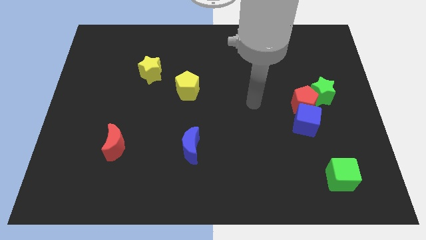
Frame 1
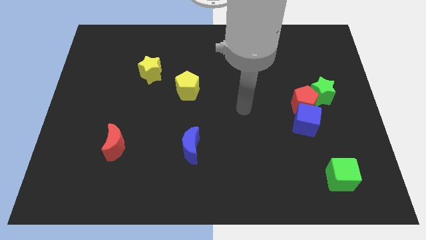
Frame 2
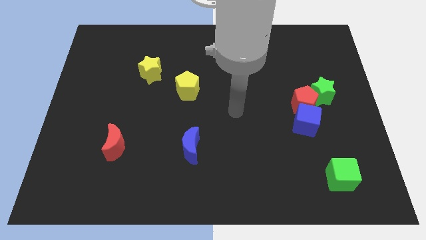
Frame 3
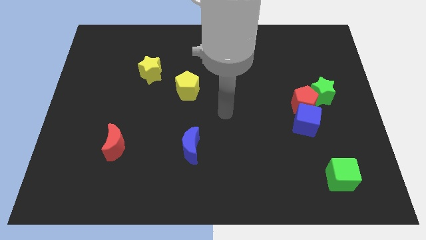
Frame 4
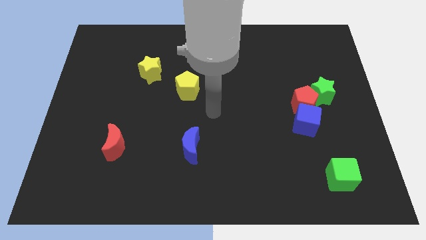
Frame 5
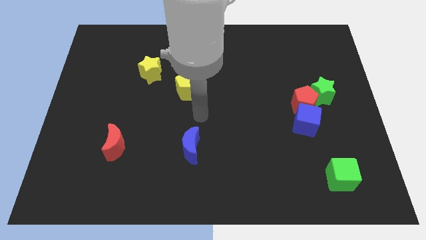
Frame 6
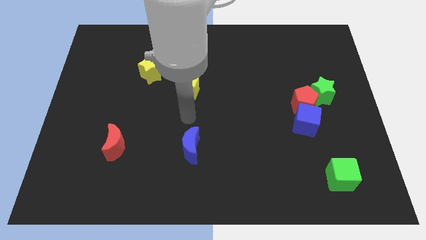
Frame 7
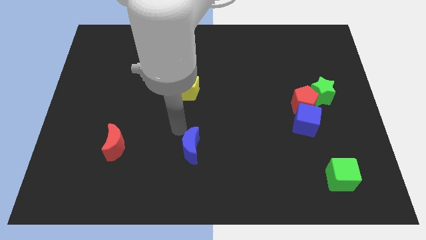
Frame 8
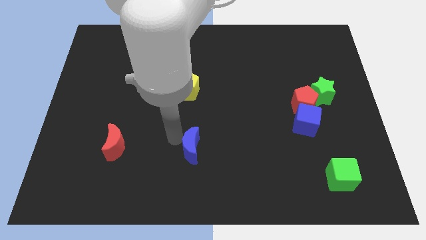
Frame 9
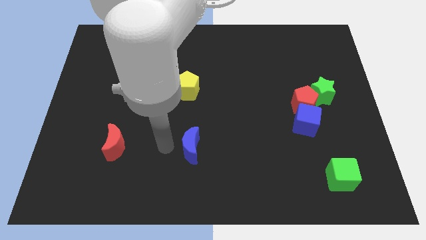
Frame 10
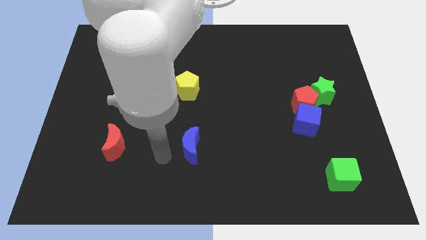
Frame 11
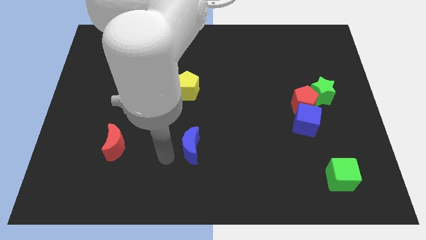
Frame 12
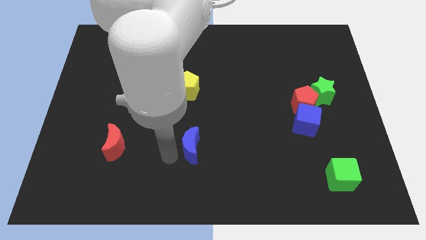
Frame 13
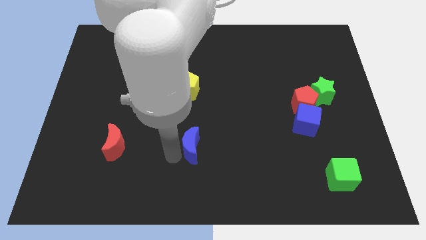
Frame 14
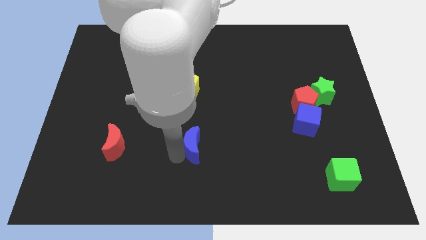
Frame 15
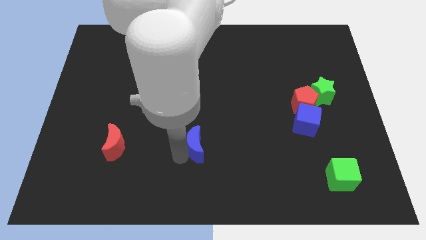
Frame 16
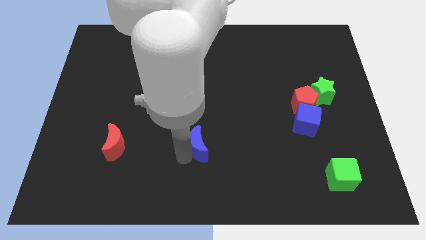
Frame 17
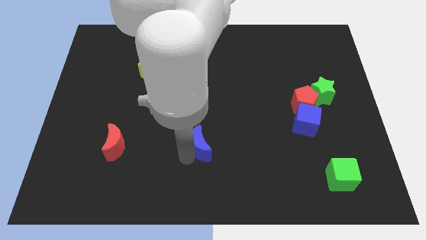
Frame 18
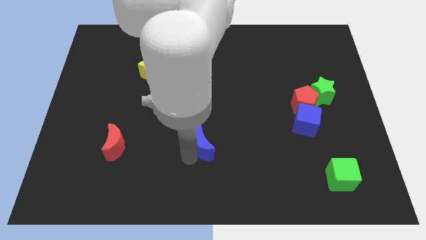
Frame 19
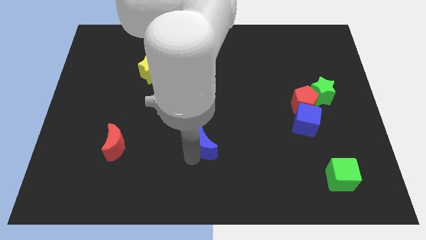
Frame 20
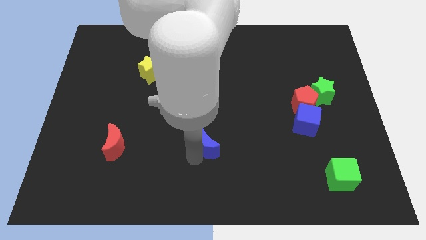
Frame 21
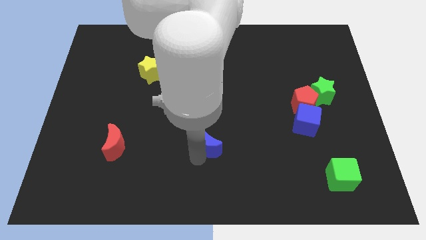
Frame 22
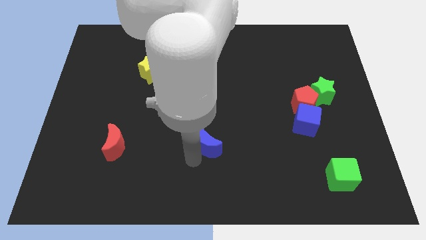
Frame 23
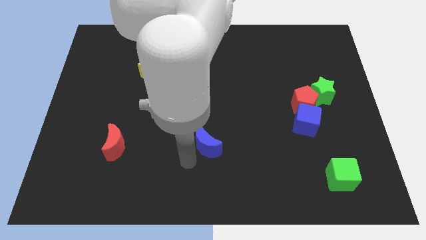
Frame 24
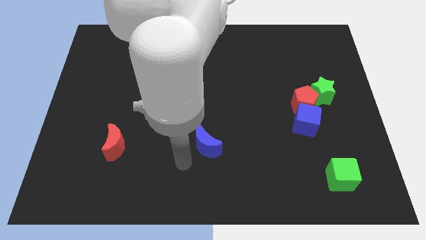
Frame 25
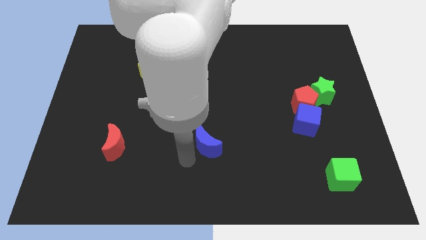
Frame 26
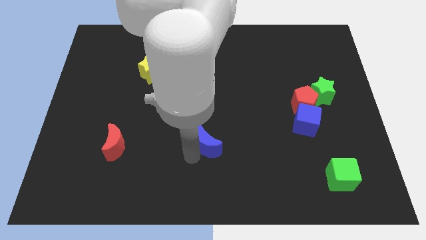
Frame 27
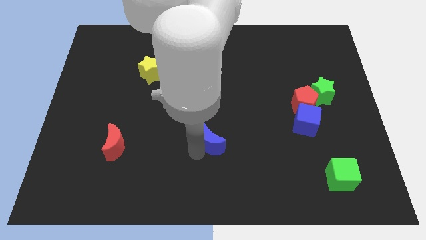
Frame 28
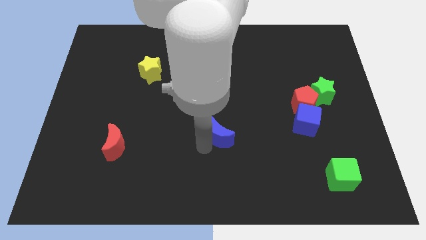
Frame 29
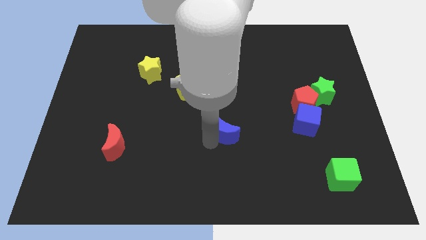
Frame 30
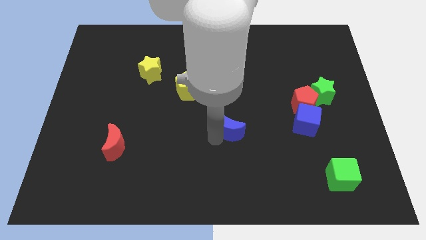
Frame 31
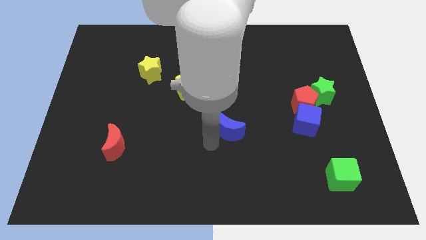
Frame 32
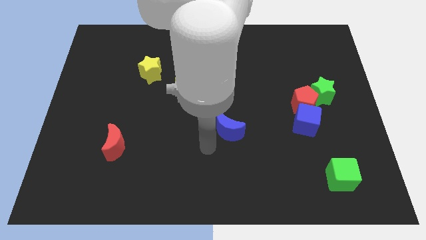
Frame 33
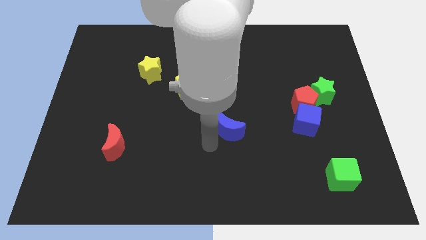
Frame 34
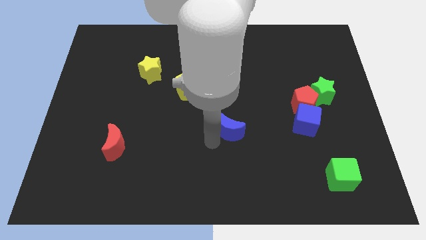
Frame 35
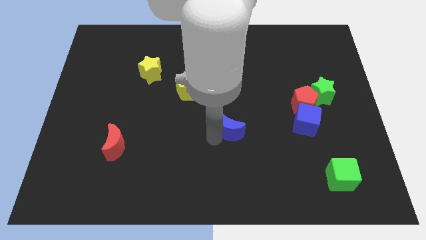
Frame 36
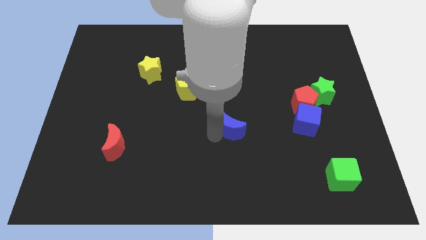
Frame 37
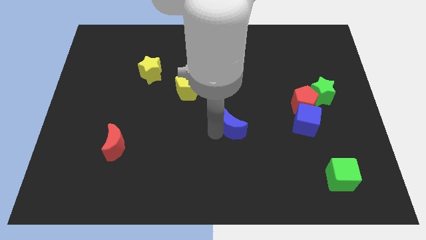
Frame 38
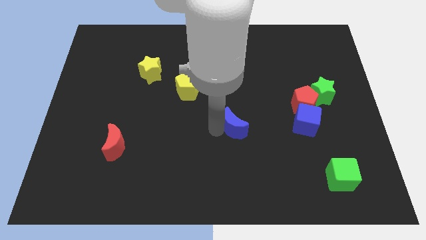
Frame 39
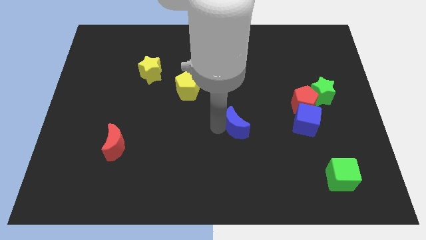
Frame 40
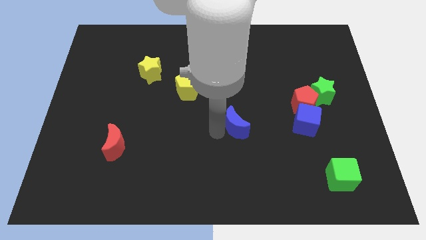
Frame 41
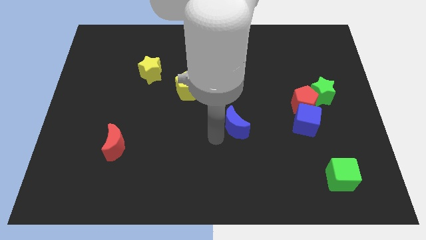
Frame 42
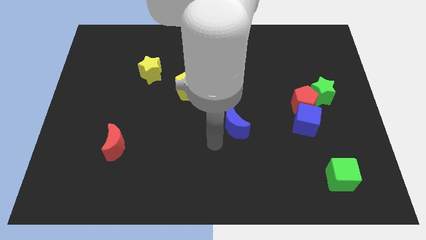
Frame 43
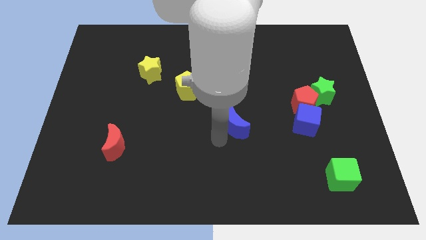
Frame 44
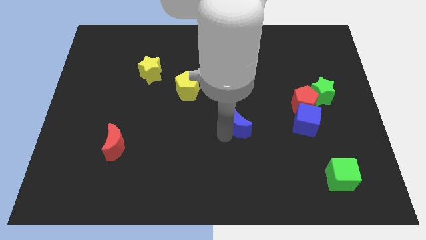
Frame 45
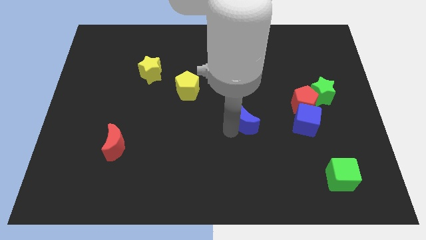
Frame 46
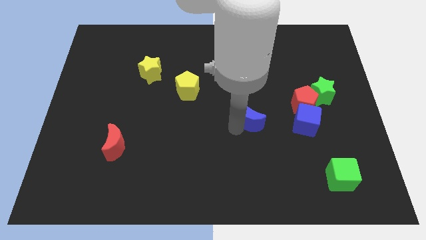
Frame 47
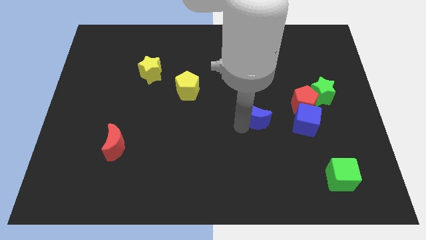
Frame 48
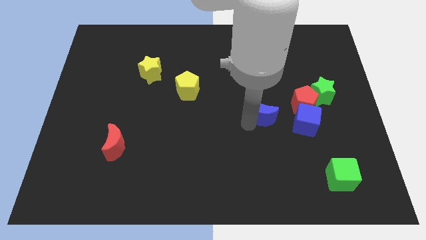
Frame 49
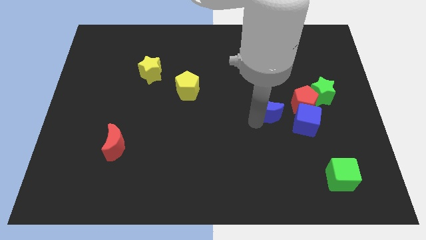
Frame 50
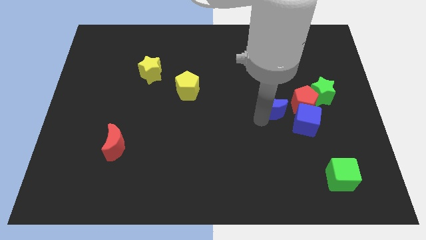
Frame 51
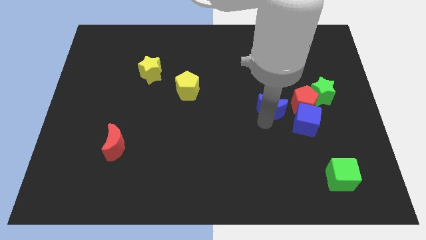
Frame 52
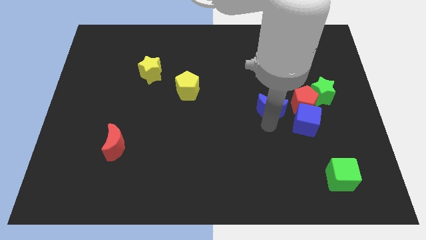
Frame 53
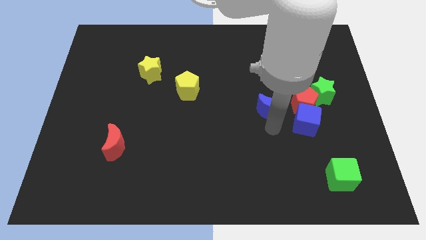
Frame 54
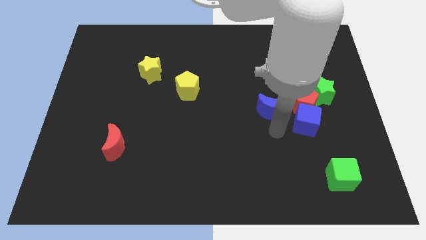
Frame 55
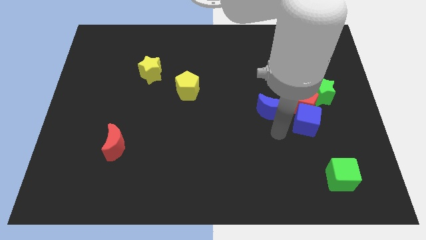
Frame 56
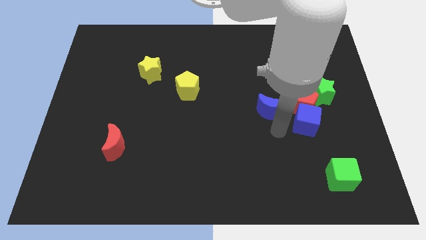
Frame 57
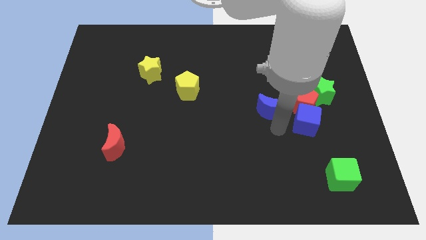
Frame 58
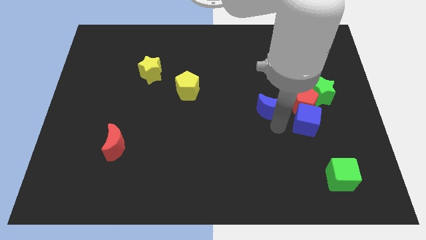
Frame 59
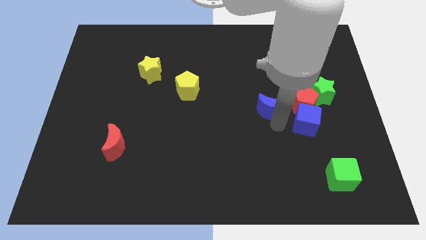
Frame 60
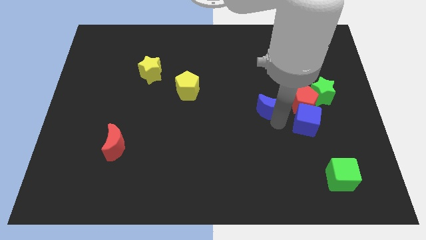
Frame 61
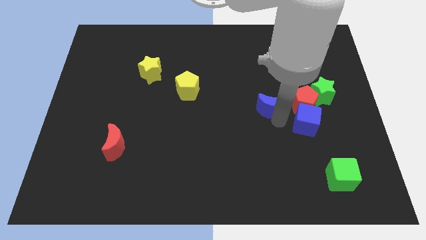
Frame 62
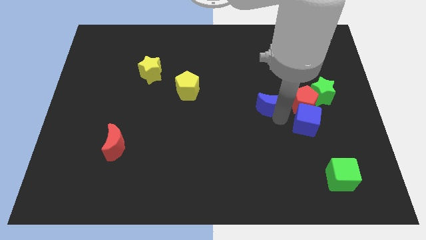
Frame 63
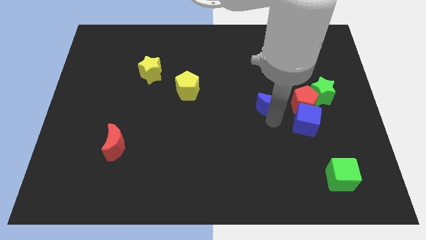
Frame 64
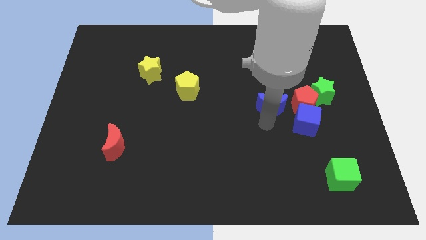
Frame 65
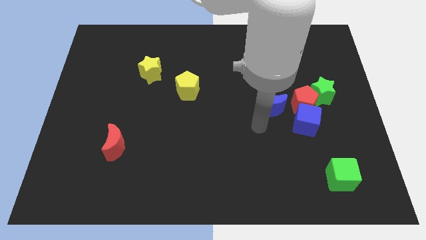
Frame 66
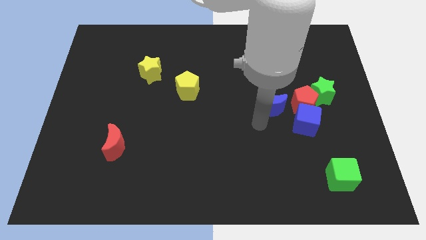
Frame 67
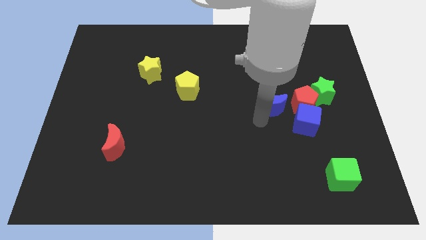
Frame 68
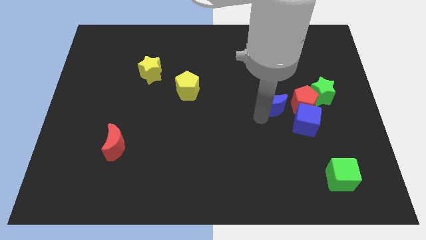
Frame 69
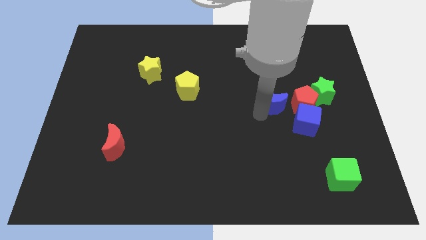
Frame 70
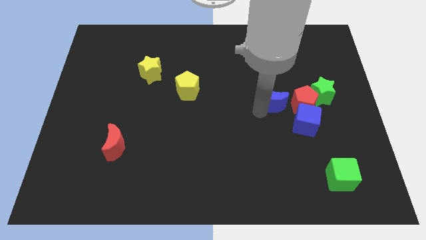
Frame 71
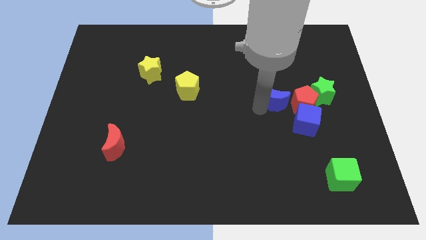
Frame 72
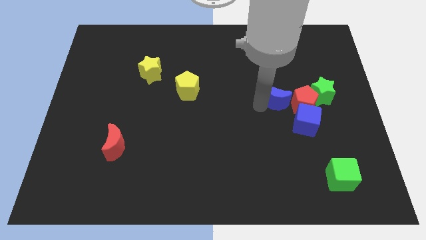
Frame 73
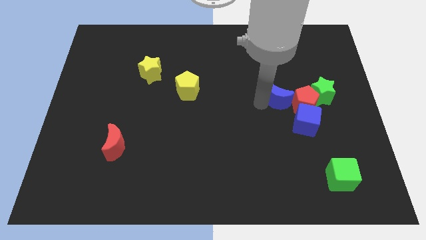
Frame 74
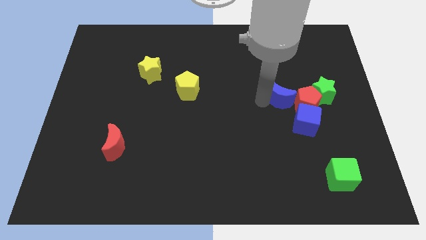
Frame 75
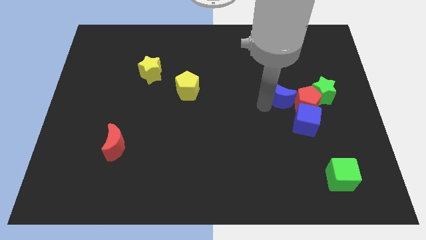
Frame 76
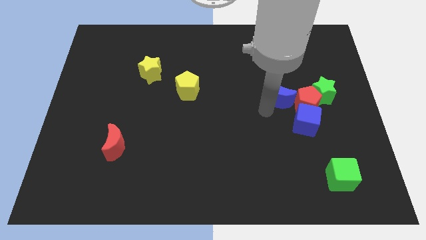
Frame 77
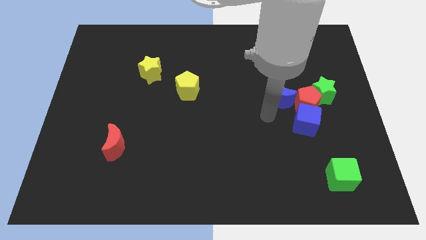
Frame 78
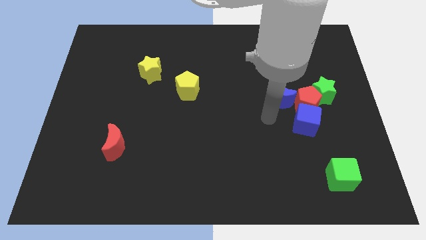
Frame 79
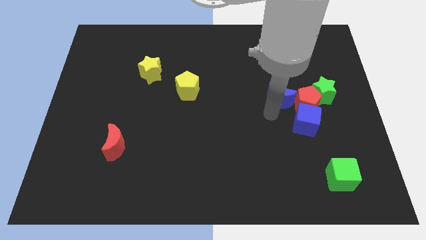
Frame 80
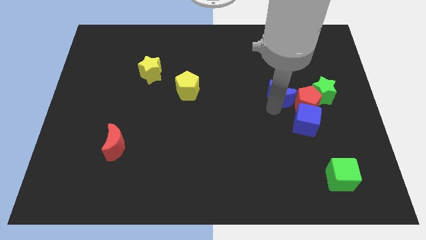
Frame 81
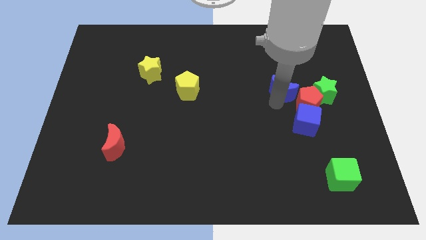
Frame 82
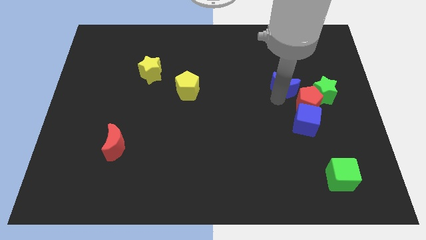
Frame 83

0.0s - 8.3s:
put the blue moon to the top of the red pentagon
